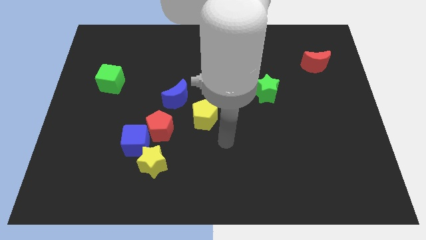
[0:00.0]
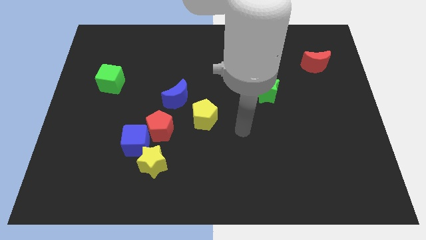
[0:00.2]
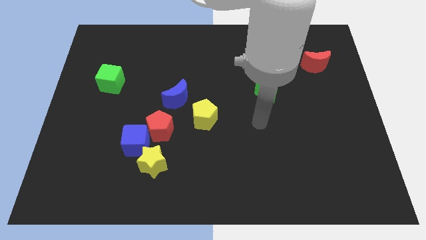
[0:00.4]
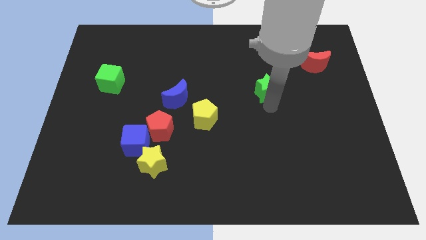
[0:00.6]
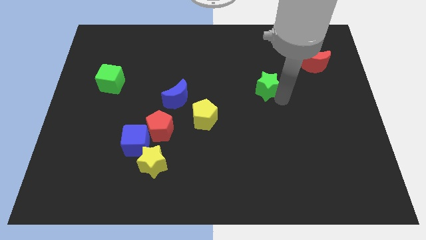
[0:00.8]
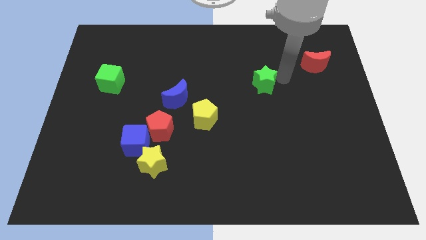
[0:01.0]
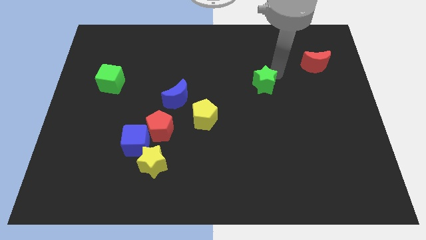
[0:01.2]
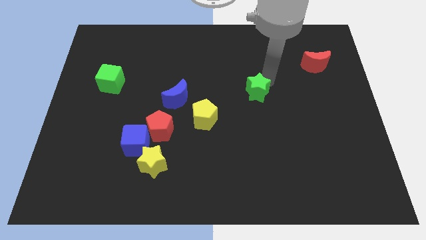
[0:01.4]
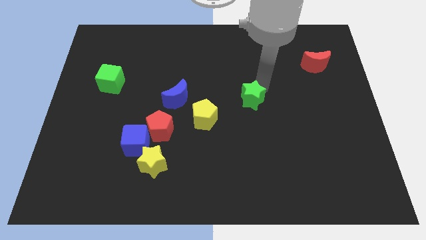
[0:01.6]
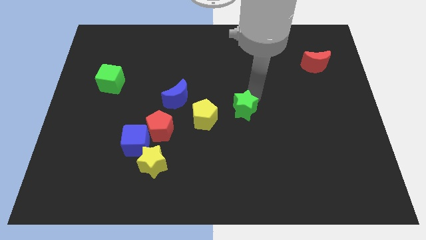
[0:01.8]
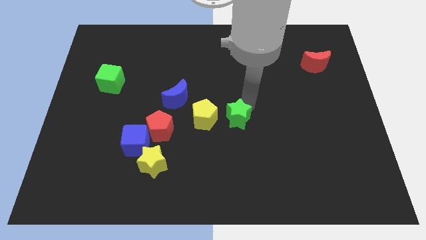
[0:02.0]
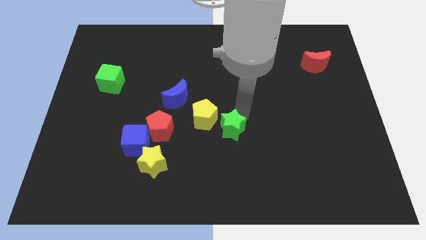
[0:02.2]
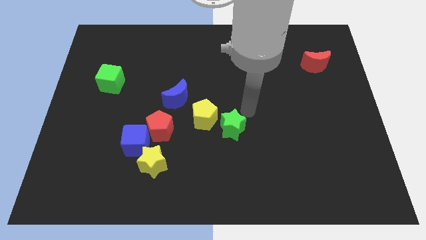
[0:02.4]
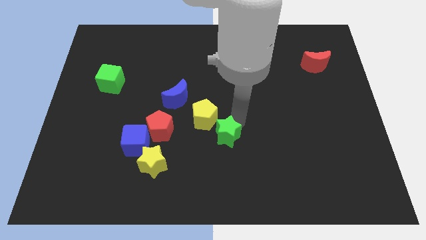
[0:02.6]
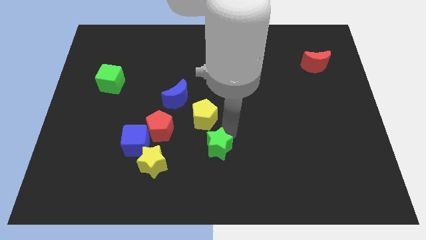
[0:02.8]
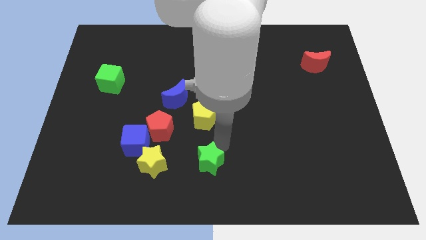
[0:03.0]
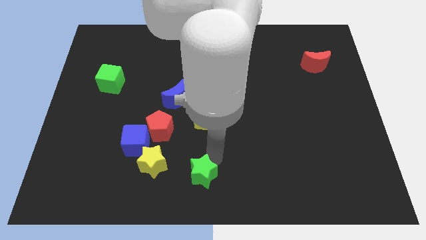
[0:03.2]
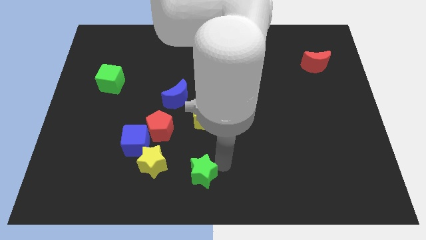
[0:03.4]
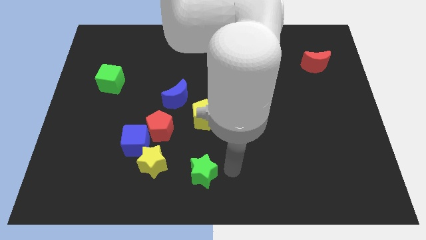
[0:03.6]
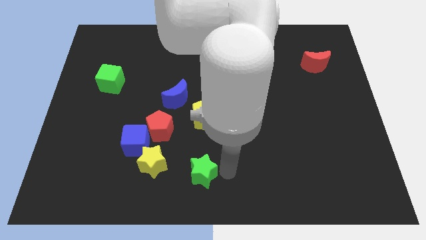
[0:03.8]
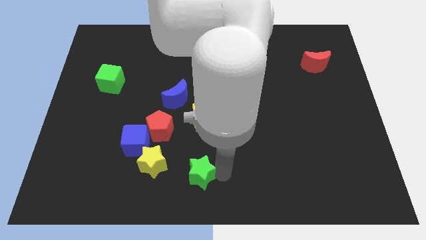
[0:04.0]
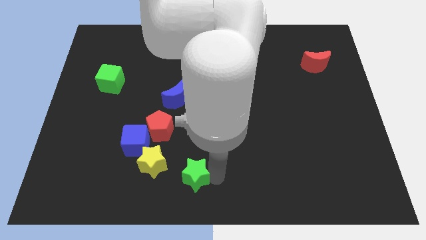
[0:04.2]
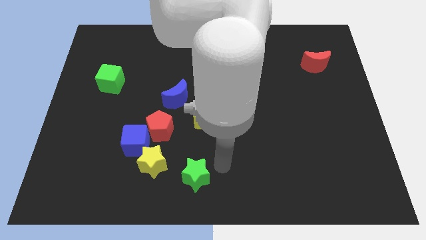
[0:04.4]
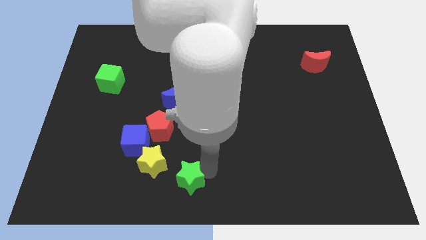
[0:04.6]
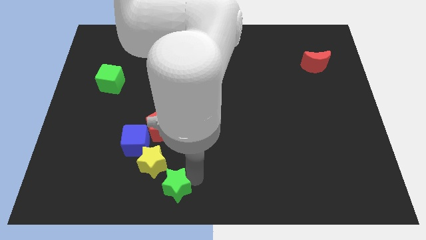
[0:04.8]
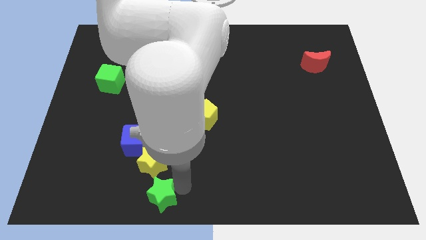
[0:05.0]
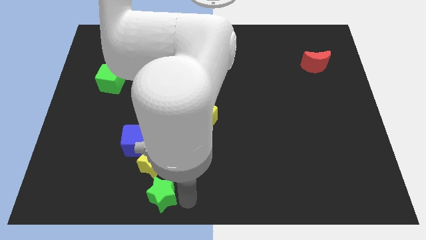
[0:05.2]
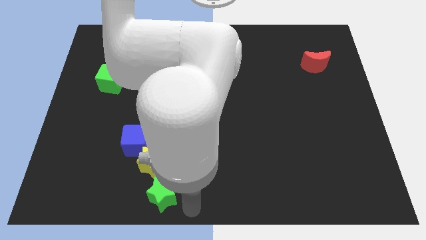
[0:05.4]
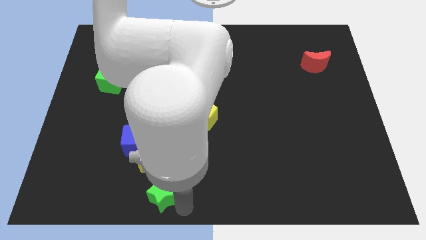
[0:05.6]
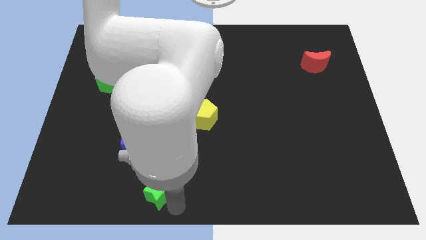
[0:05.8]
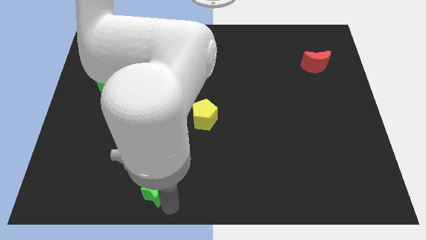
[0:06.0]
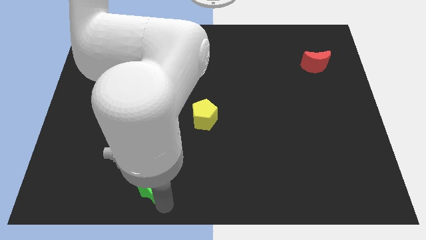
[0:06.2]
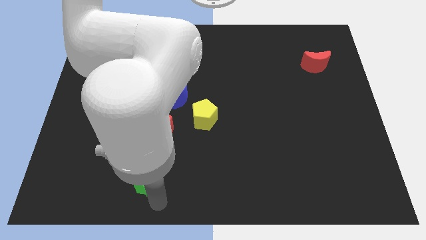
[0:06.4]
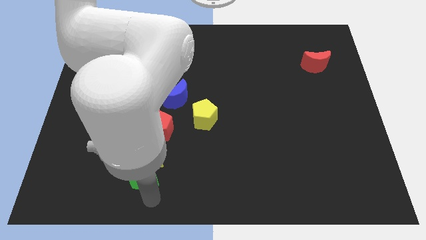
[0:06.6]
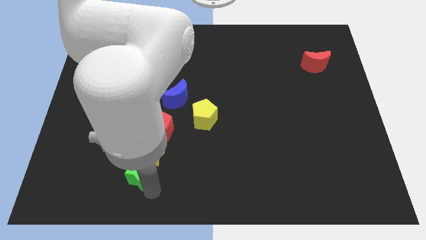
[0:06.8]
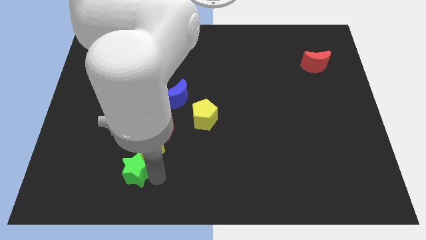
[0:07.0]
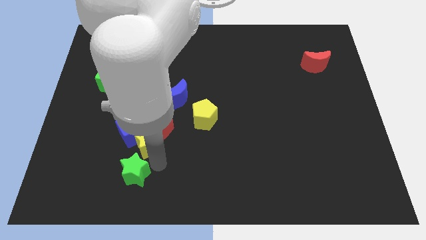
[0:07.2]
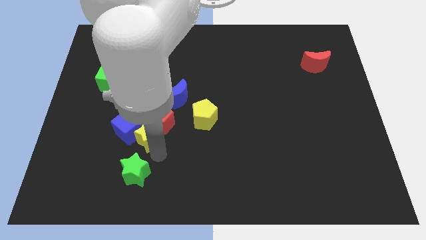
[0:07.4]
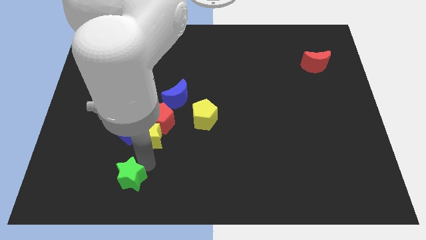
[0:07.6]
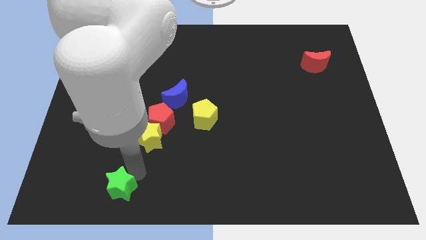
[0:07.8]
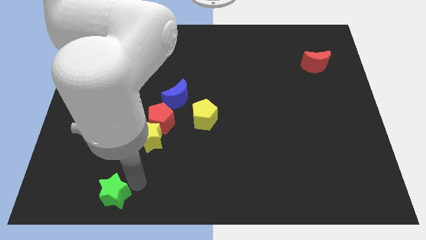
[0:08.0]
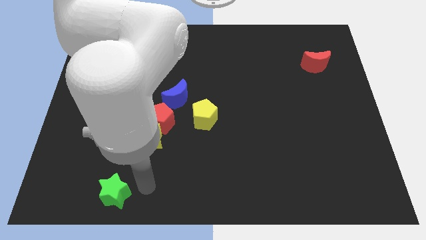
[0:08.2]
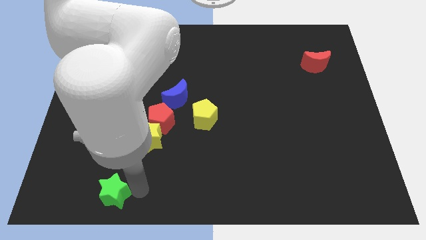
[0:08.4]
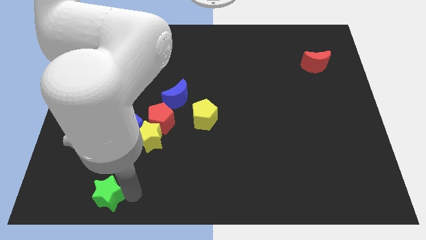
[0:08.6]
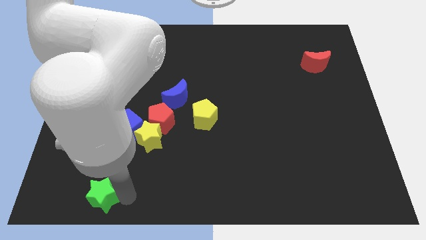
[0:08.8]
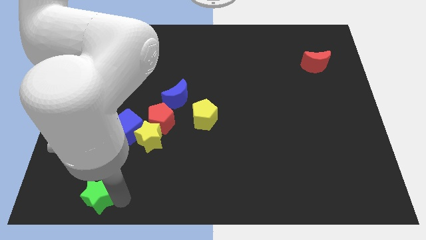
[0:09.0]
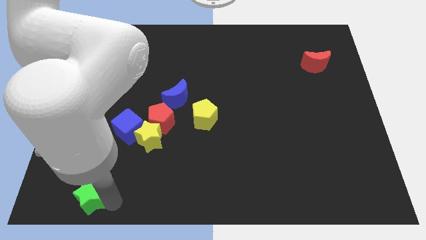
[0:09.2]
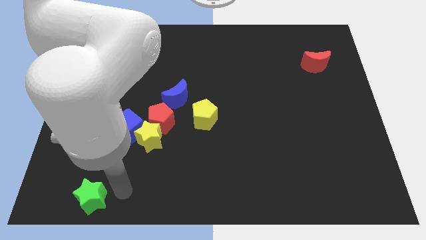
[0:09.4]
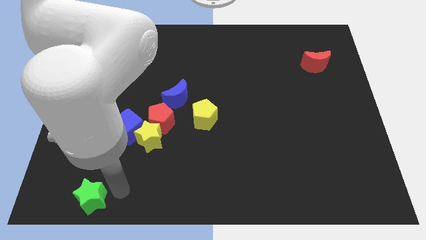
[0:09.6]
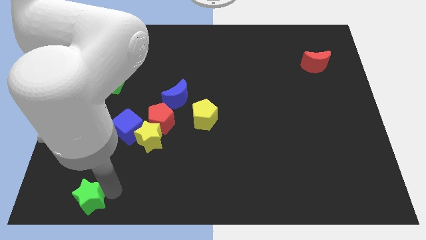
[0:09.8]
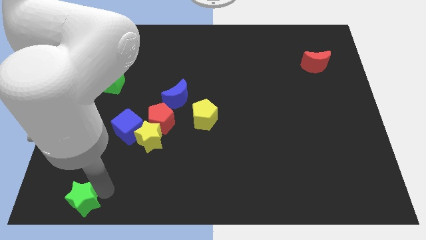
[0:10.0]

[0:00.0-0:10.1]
push the green star to the bottom left

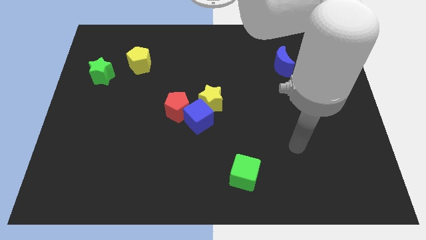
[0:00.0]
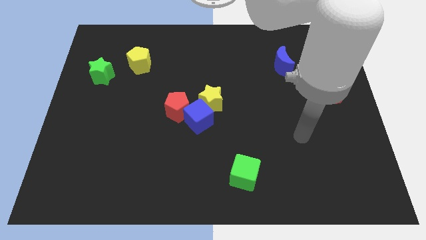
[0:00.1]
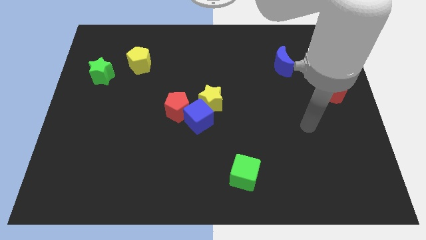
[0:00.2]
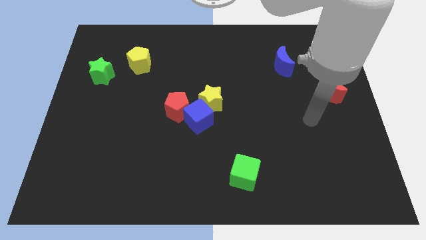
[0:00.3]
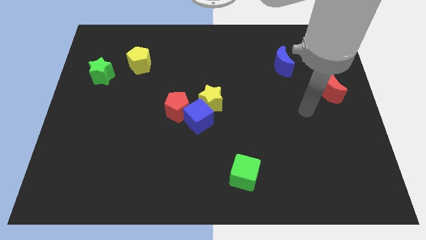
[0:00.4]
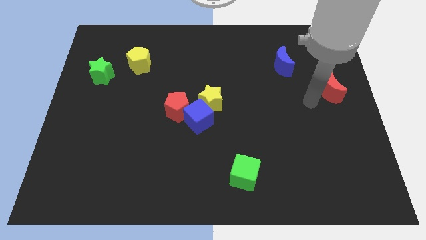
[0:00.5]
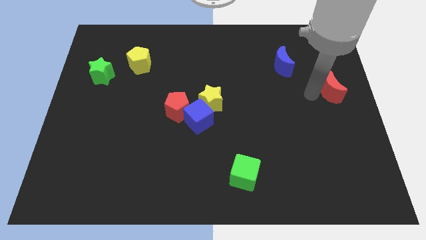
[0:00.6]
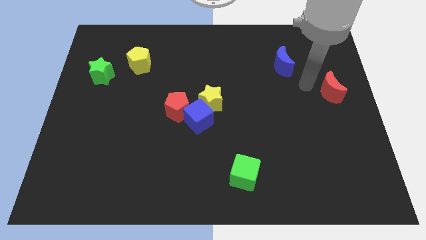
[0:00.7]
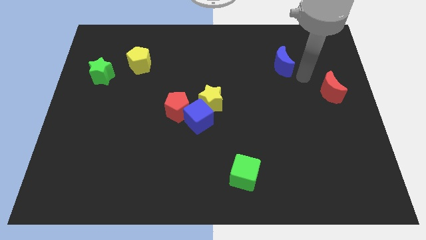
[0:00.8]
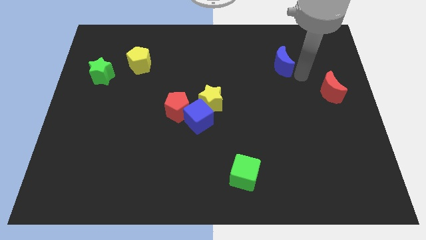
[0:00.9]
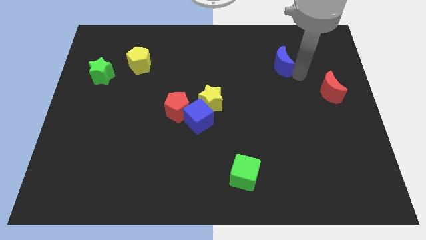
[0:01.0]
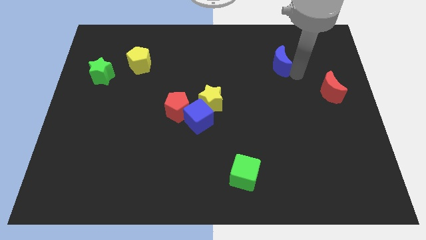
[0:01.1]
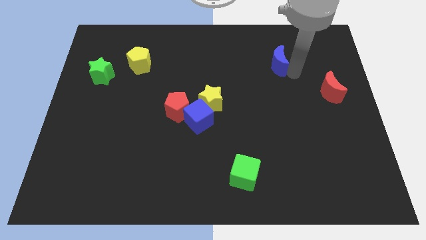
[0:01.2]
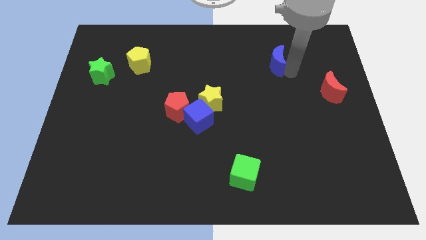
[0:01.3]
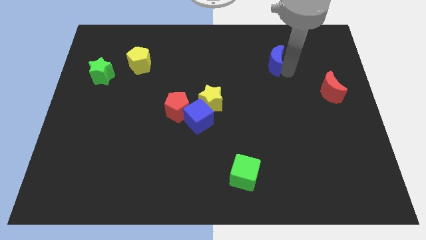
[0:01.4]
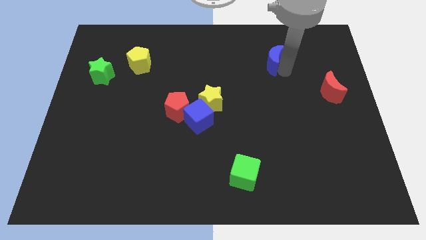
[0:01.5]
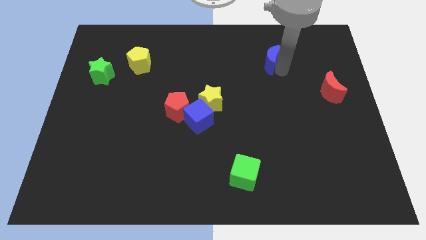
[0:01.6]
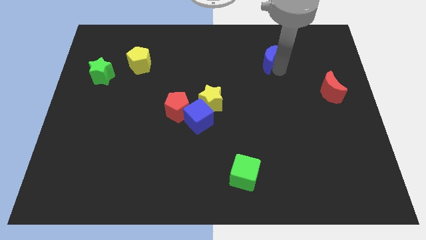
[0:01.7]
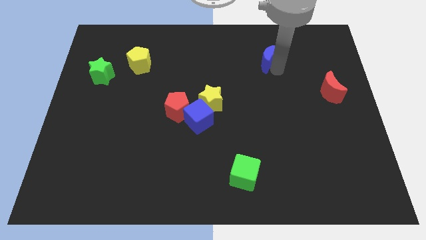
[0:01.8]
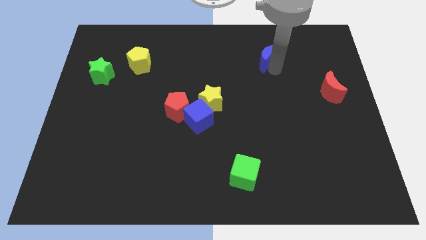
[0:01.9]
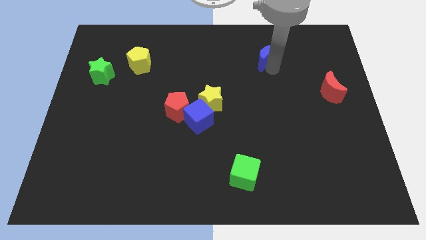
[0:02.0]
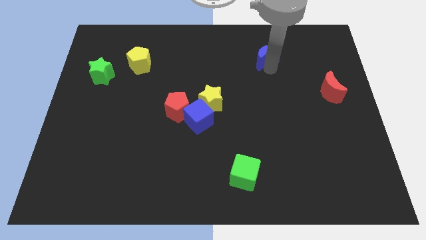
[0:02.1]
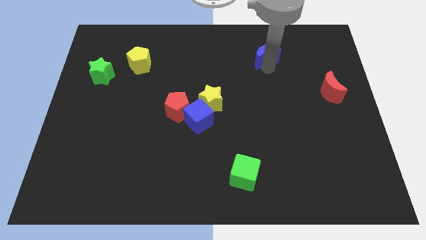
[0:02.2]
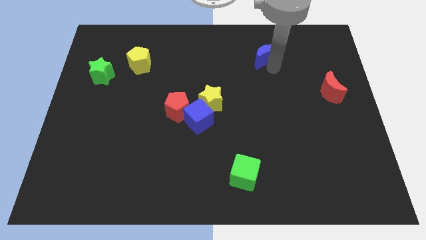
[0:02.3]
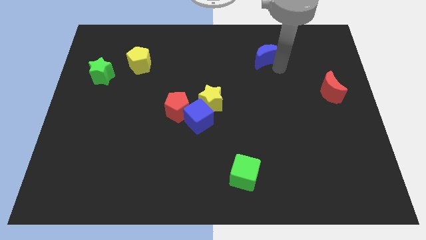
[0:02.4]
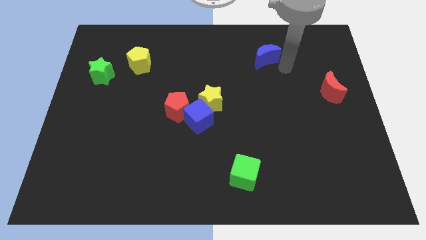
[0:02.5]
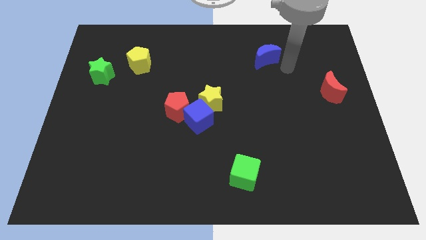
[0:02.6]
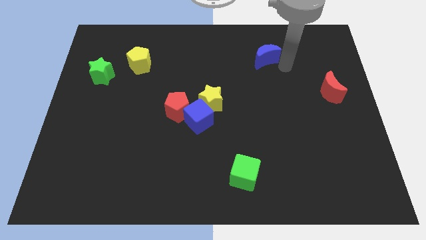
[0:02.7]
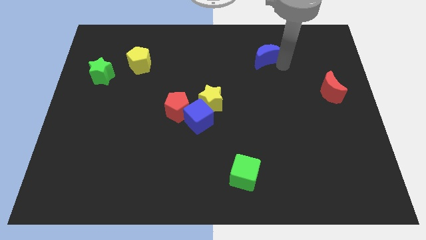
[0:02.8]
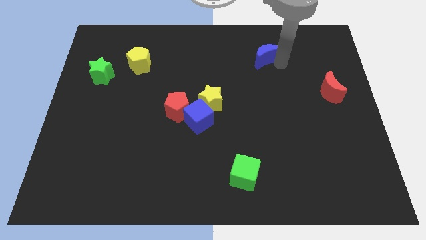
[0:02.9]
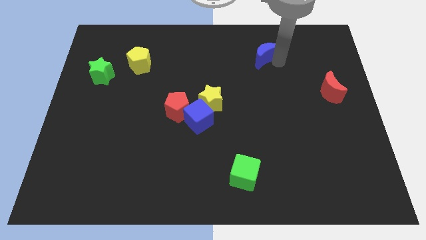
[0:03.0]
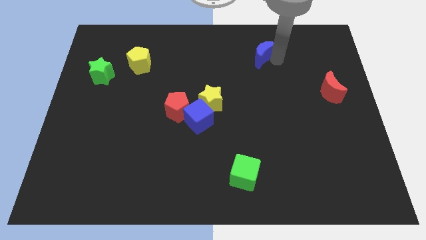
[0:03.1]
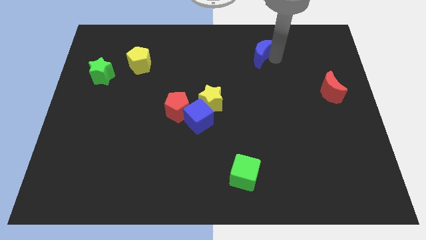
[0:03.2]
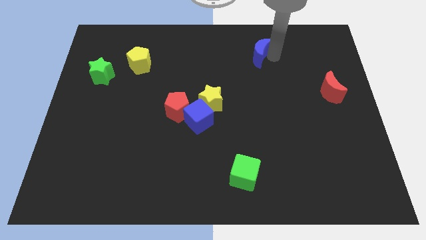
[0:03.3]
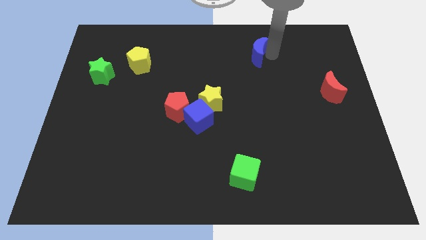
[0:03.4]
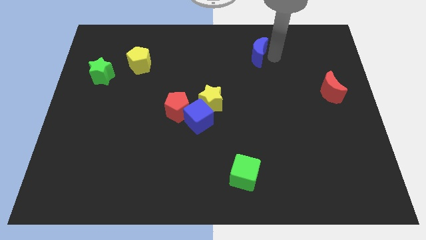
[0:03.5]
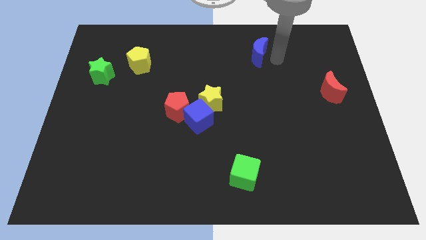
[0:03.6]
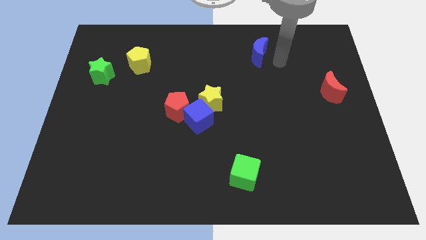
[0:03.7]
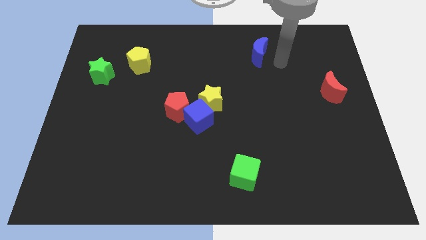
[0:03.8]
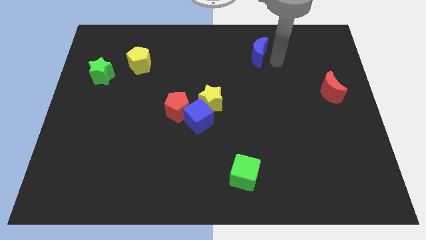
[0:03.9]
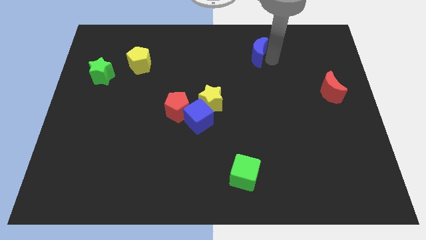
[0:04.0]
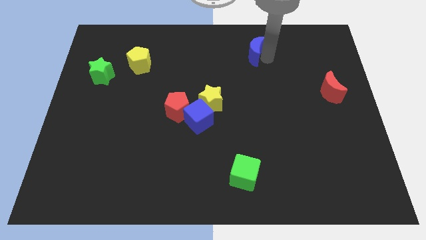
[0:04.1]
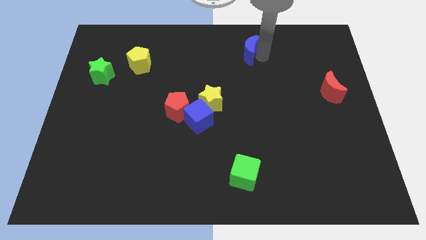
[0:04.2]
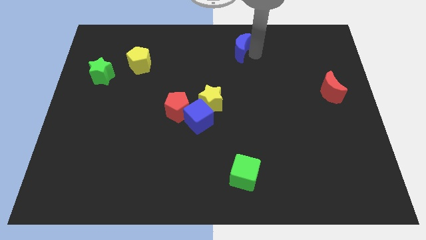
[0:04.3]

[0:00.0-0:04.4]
slide the blue moon to the towards your base
